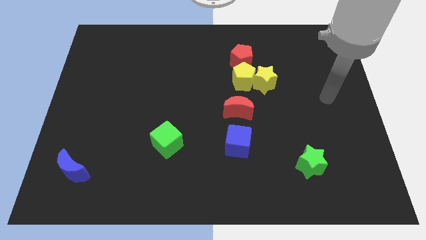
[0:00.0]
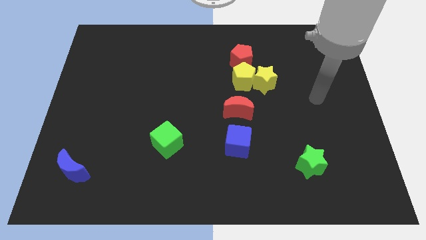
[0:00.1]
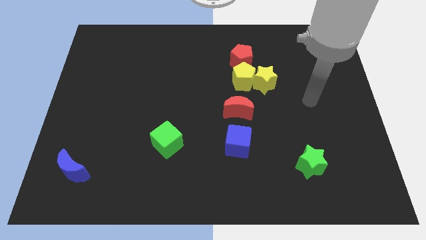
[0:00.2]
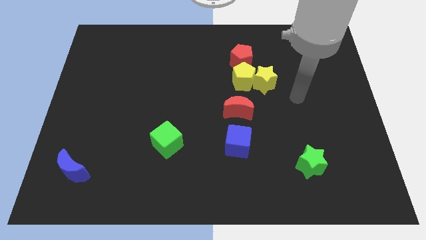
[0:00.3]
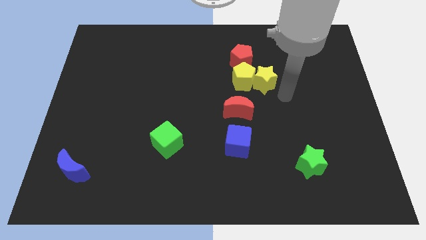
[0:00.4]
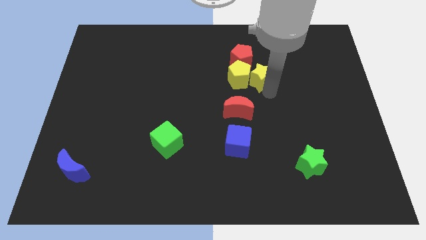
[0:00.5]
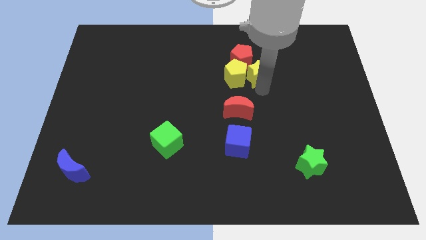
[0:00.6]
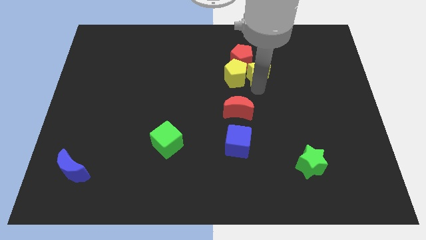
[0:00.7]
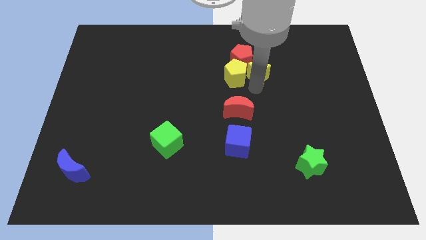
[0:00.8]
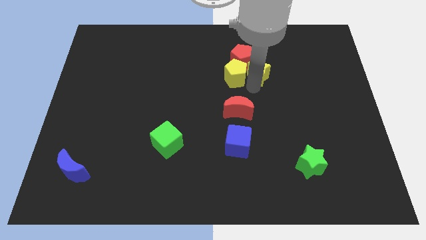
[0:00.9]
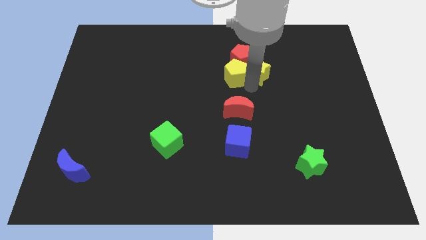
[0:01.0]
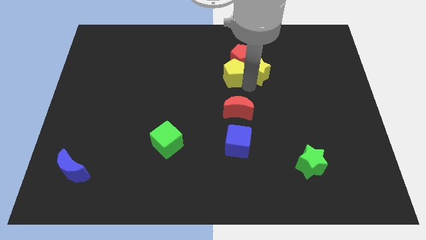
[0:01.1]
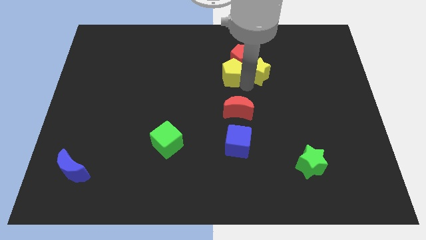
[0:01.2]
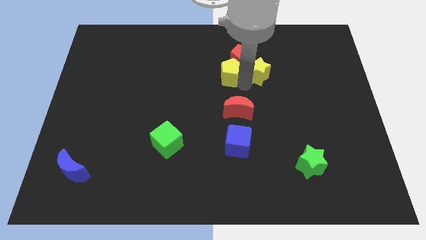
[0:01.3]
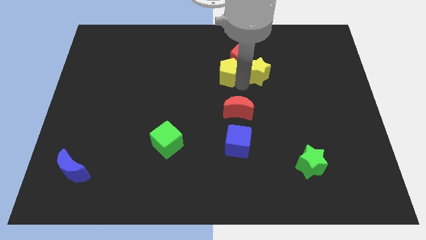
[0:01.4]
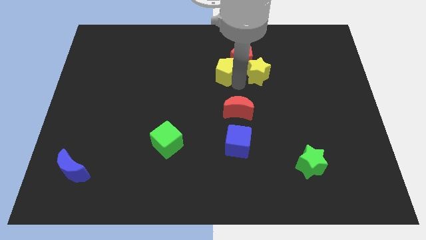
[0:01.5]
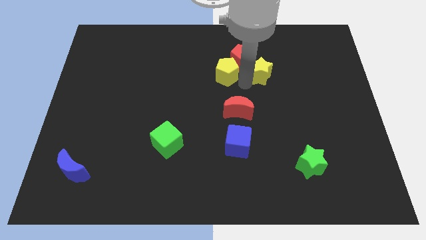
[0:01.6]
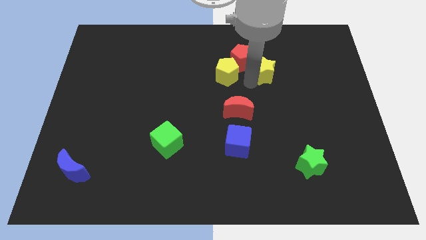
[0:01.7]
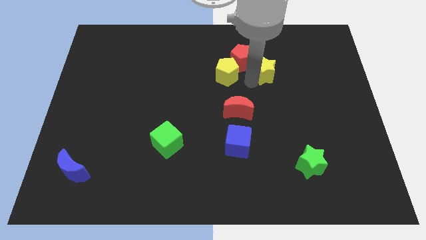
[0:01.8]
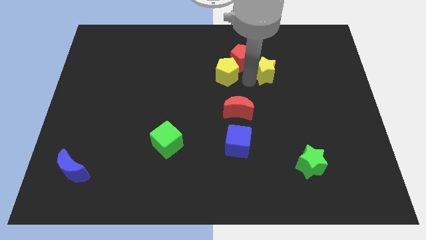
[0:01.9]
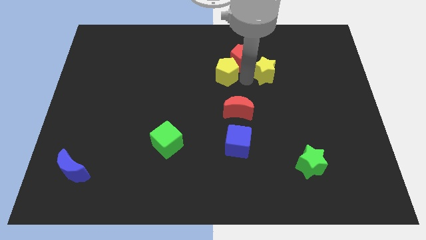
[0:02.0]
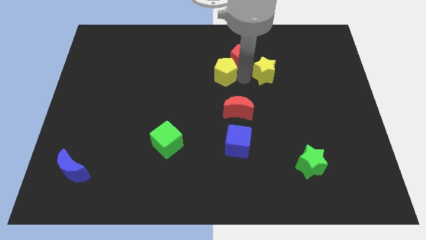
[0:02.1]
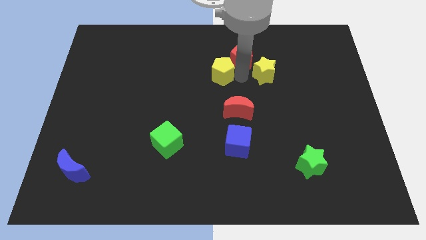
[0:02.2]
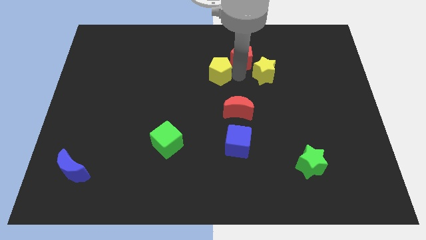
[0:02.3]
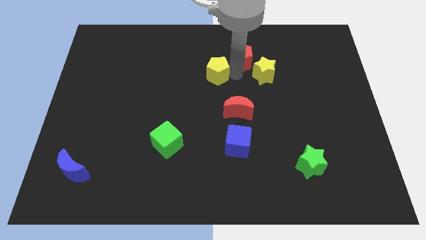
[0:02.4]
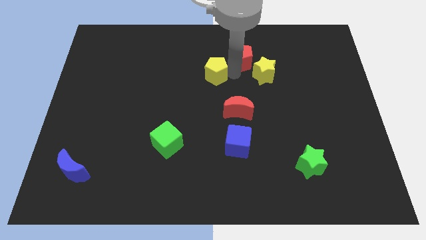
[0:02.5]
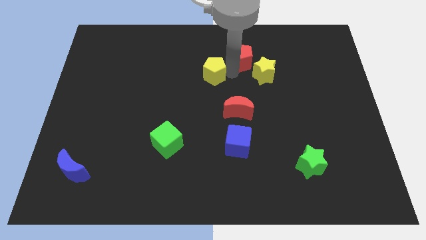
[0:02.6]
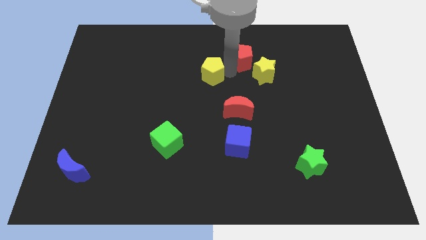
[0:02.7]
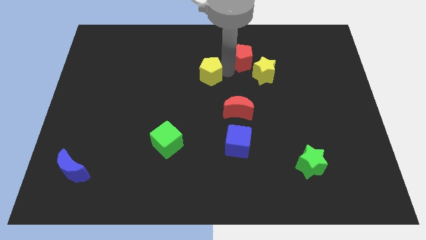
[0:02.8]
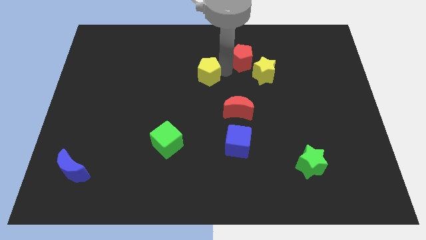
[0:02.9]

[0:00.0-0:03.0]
move the yellow pentagon away from the yellow star, red pentagon, and red moon

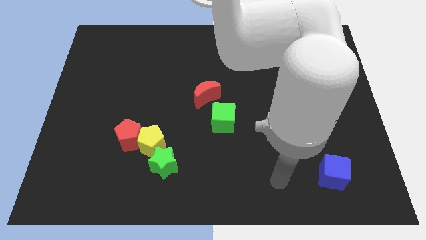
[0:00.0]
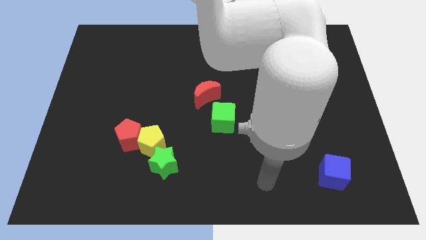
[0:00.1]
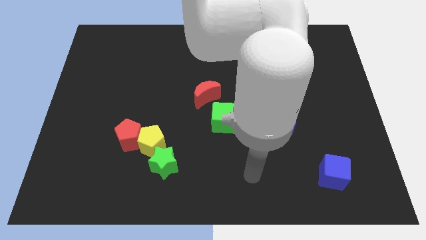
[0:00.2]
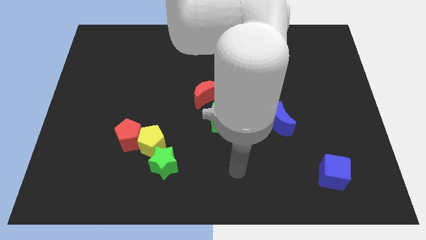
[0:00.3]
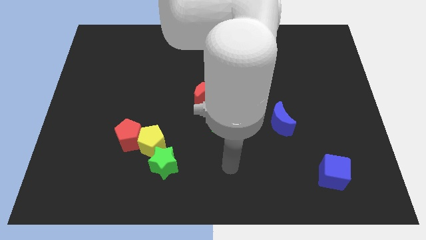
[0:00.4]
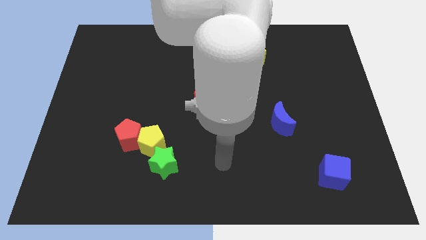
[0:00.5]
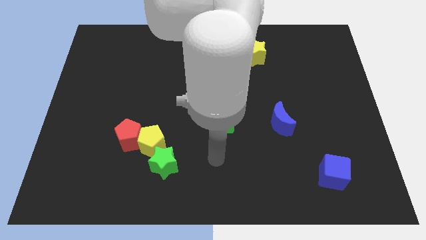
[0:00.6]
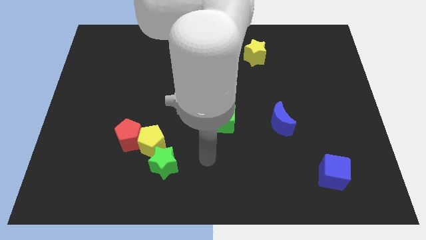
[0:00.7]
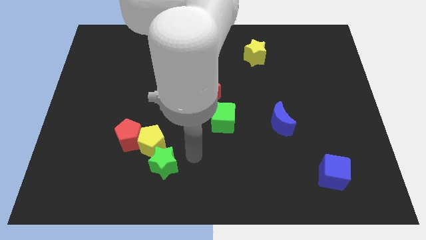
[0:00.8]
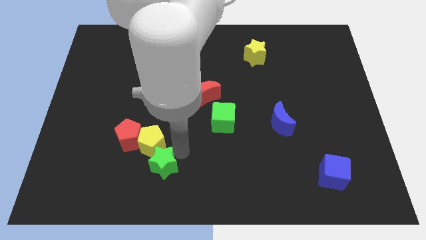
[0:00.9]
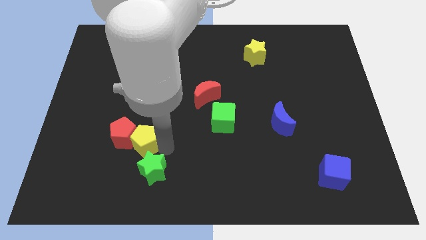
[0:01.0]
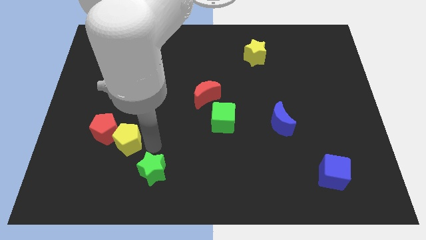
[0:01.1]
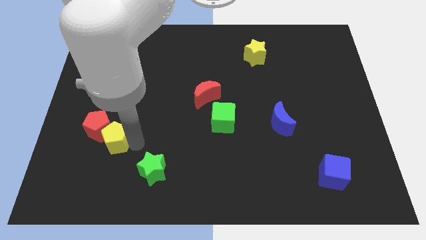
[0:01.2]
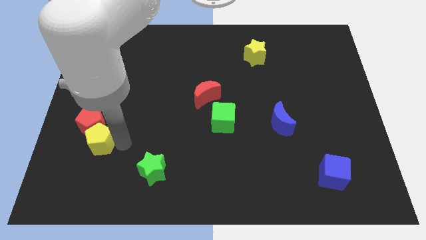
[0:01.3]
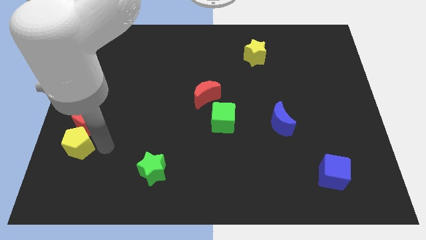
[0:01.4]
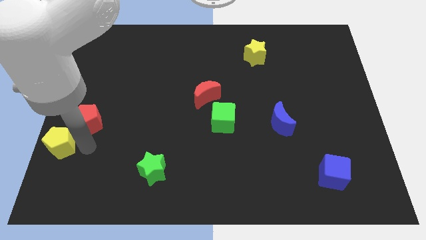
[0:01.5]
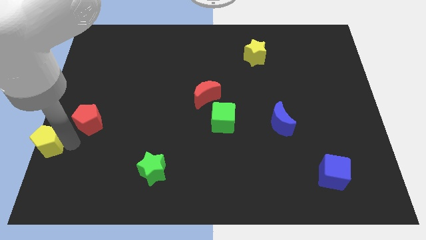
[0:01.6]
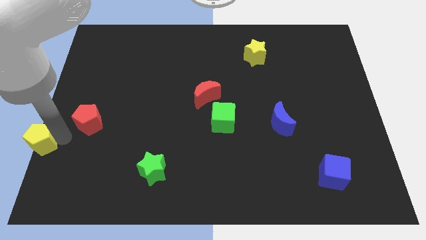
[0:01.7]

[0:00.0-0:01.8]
move the red pentagon away from the yellow pentagon

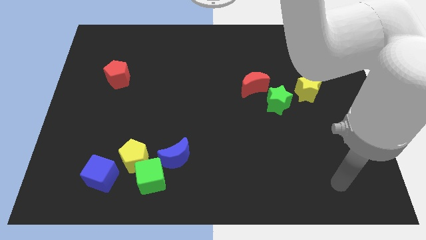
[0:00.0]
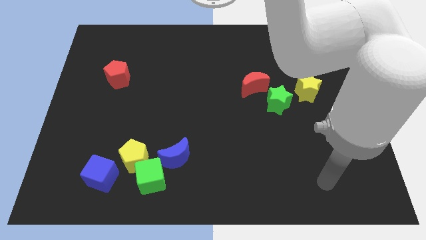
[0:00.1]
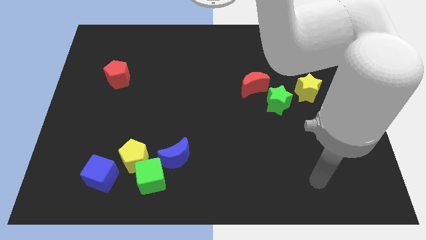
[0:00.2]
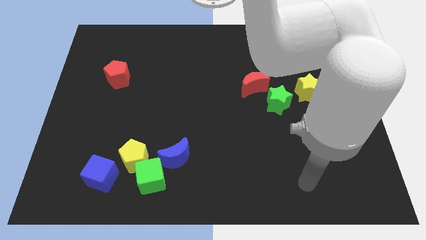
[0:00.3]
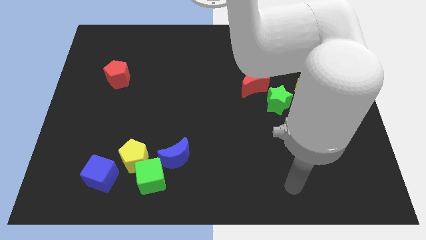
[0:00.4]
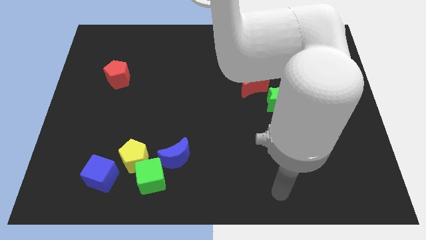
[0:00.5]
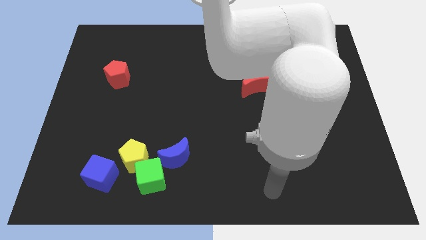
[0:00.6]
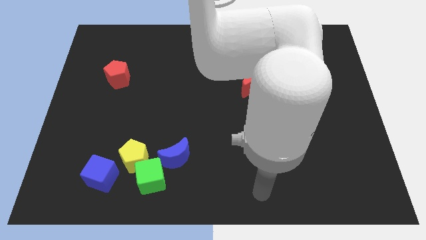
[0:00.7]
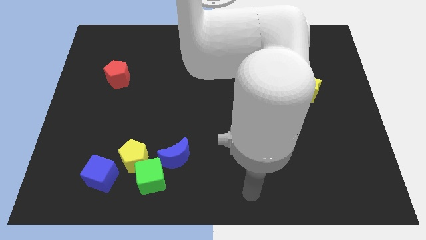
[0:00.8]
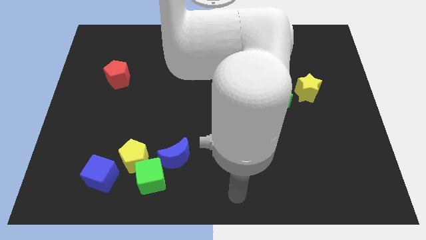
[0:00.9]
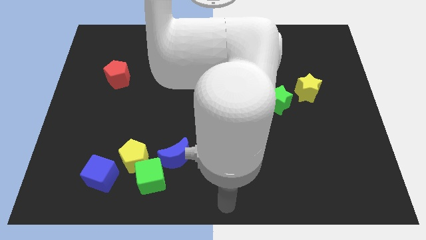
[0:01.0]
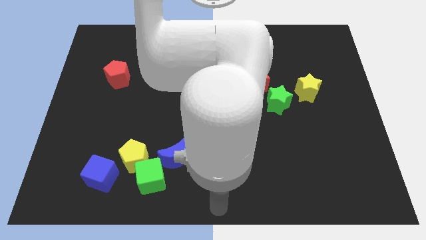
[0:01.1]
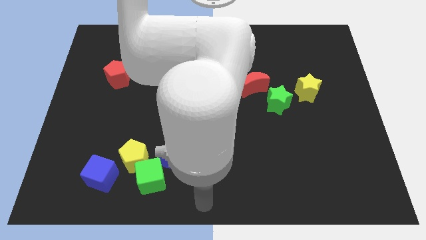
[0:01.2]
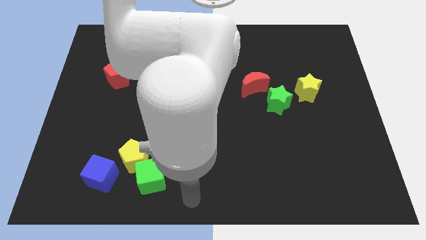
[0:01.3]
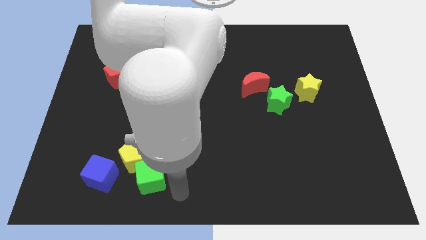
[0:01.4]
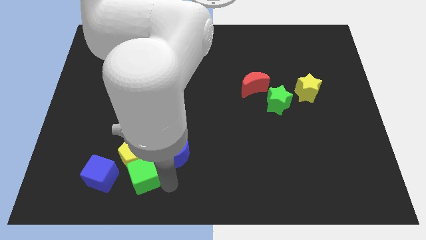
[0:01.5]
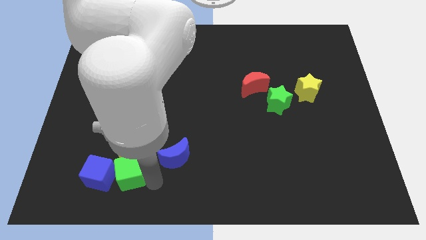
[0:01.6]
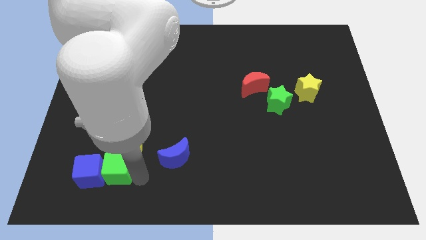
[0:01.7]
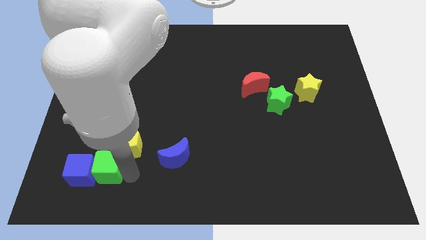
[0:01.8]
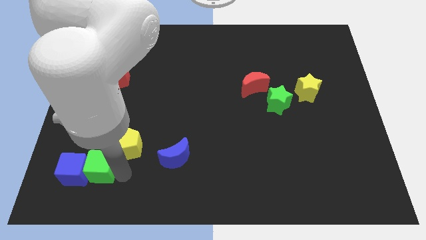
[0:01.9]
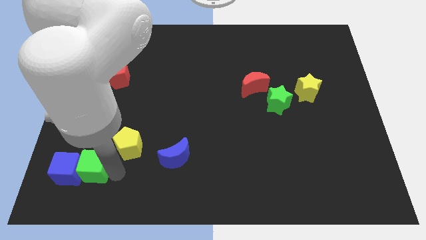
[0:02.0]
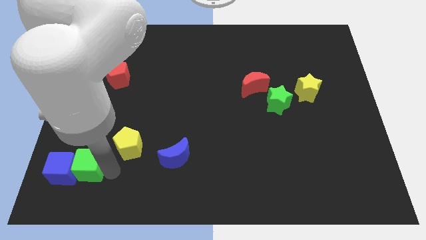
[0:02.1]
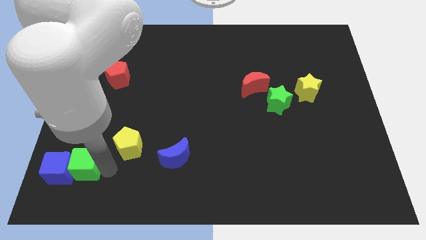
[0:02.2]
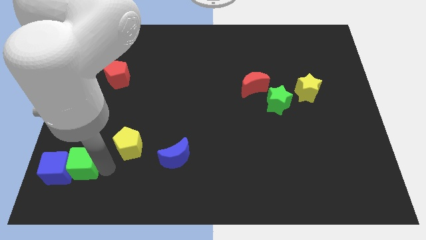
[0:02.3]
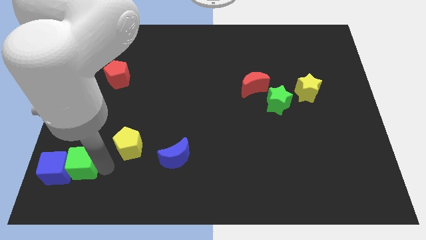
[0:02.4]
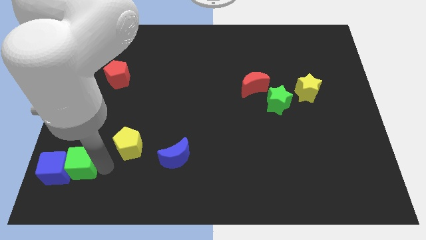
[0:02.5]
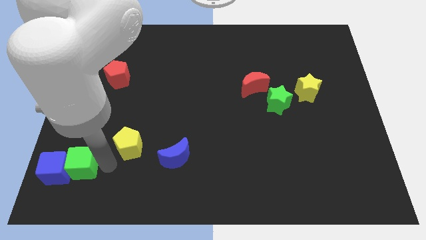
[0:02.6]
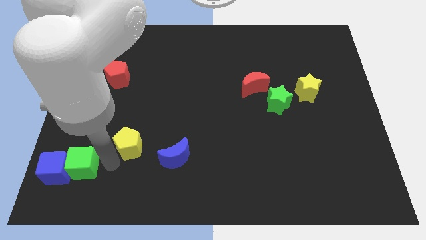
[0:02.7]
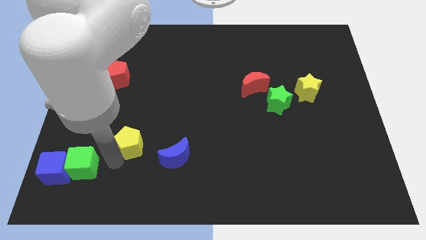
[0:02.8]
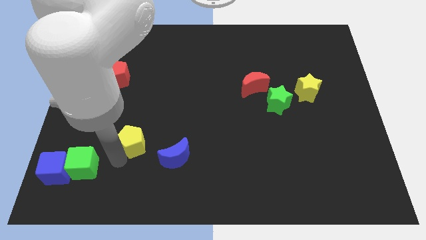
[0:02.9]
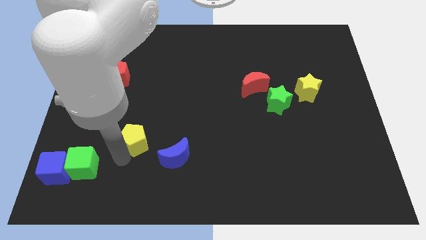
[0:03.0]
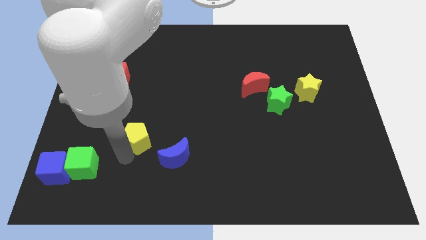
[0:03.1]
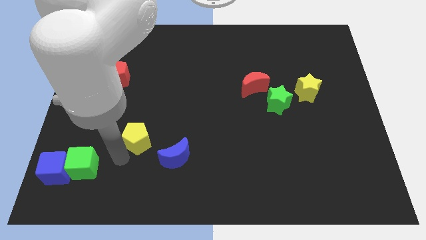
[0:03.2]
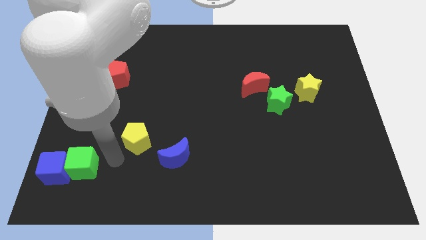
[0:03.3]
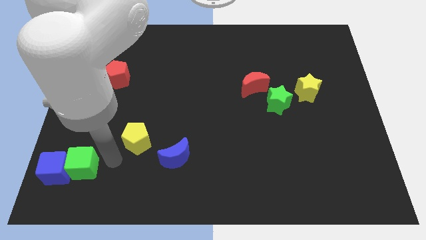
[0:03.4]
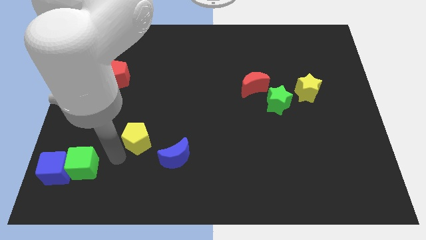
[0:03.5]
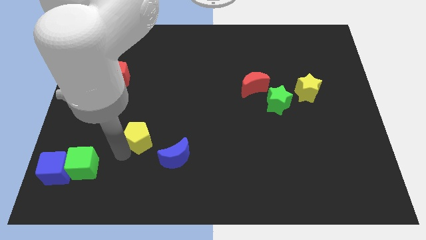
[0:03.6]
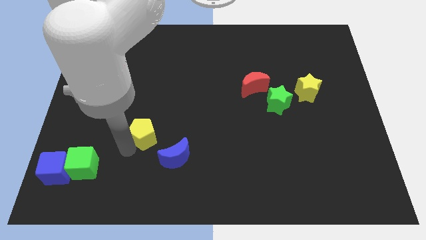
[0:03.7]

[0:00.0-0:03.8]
pull the yellow pentagon apart from the group

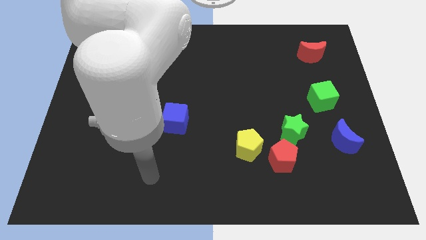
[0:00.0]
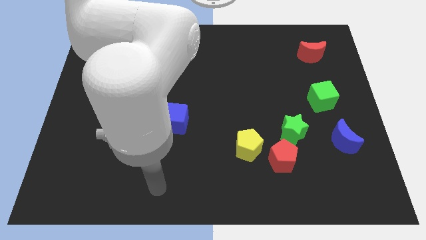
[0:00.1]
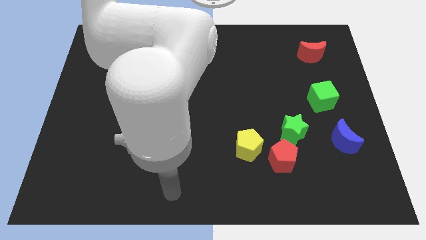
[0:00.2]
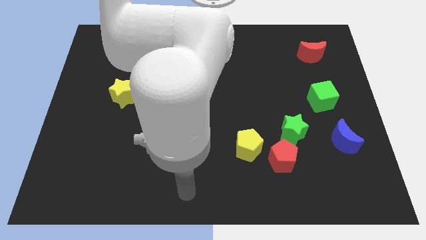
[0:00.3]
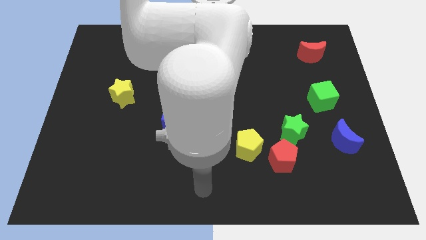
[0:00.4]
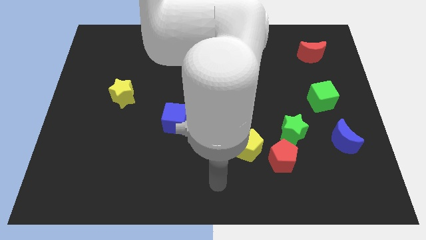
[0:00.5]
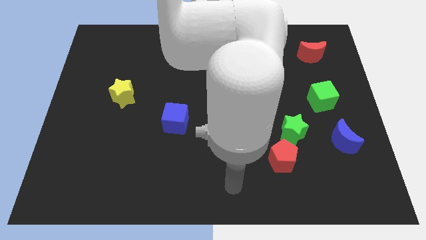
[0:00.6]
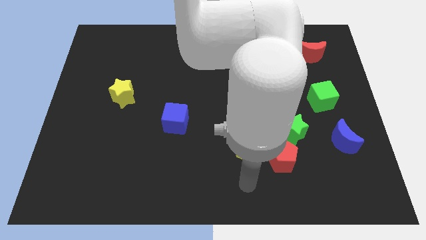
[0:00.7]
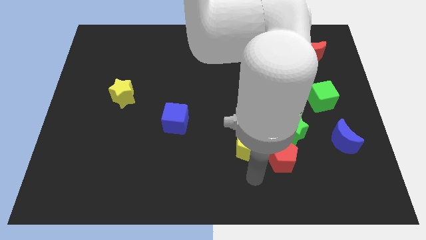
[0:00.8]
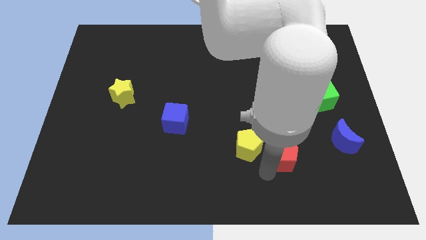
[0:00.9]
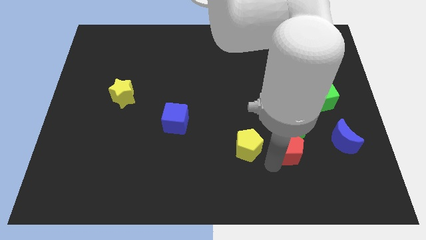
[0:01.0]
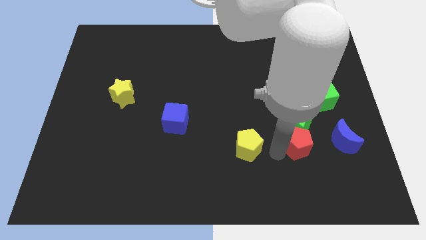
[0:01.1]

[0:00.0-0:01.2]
pull the yellow pentagon apart from the red pentagon
